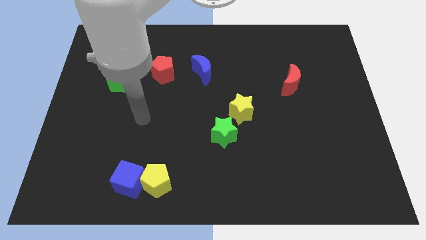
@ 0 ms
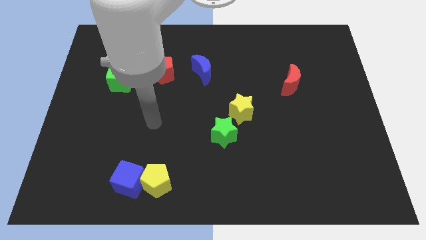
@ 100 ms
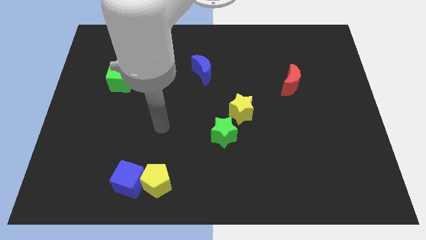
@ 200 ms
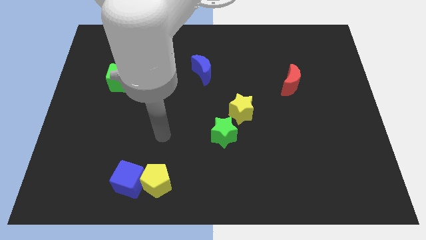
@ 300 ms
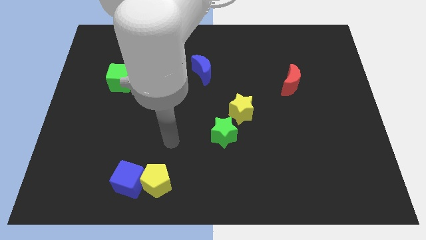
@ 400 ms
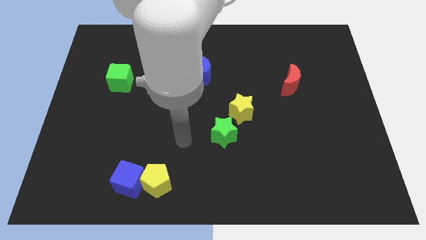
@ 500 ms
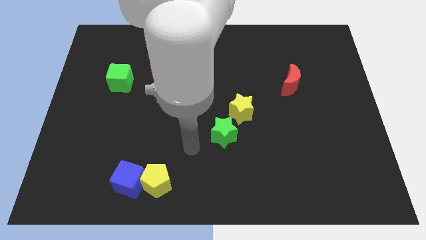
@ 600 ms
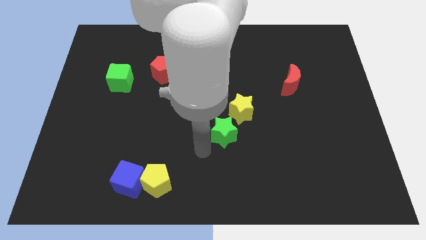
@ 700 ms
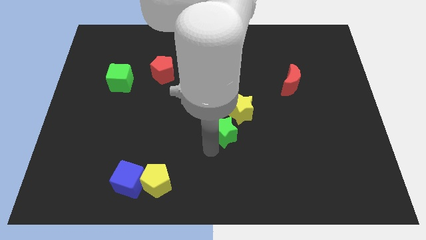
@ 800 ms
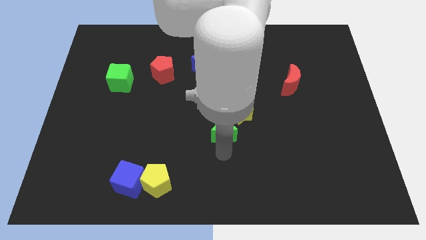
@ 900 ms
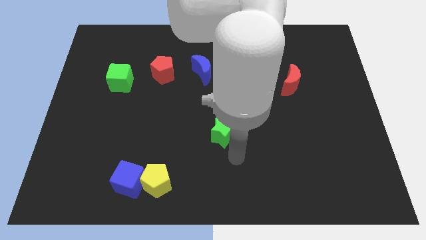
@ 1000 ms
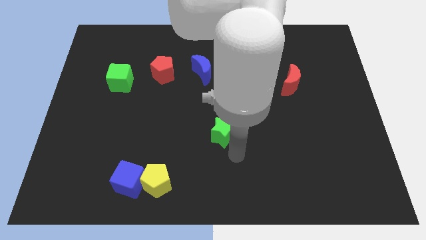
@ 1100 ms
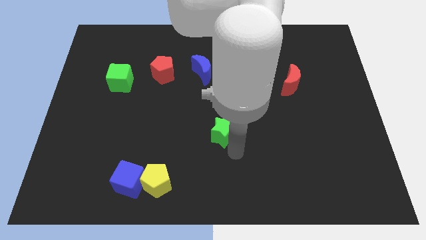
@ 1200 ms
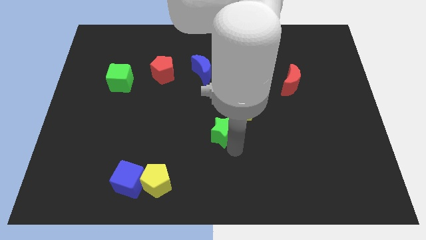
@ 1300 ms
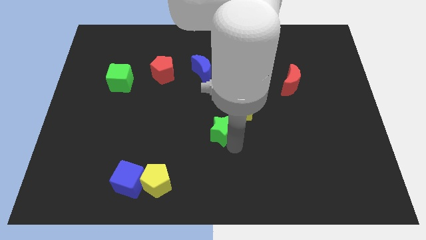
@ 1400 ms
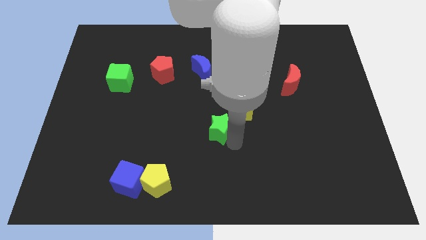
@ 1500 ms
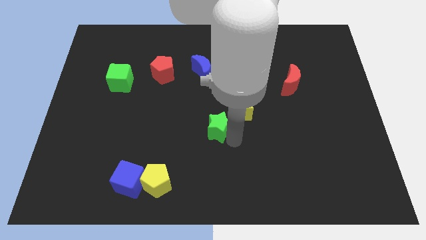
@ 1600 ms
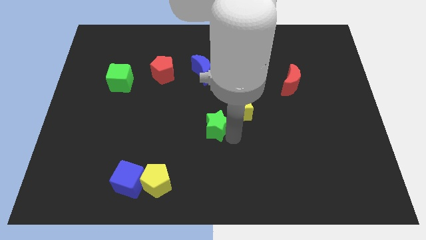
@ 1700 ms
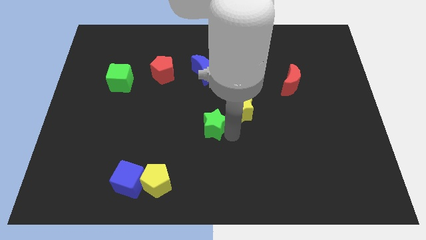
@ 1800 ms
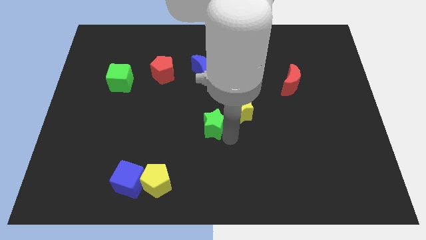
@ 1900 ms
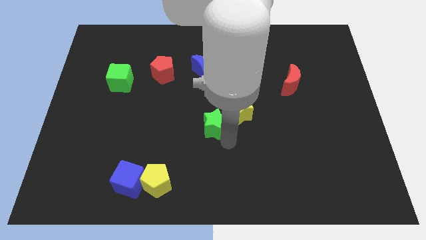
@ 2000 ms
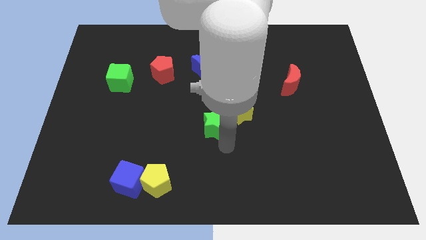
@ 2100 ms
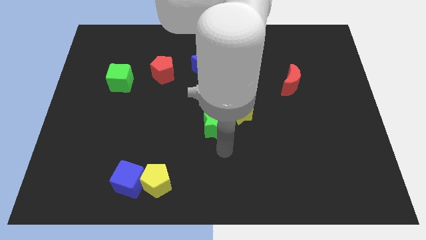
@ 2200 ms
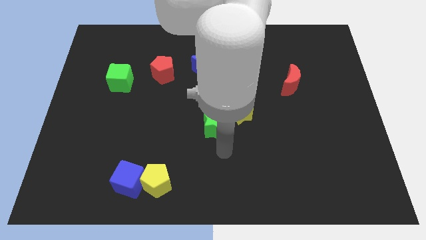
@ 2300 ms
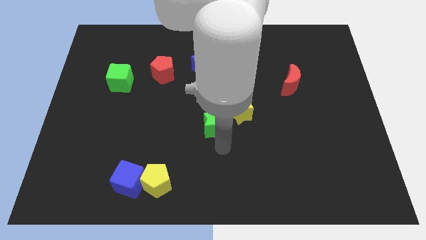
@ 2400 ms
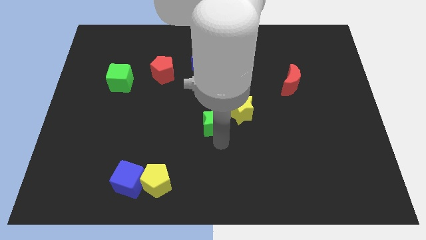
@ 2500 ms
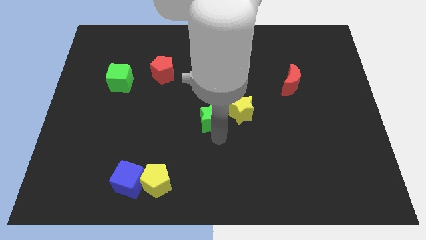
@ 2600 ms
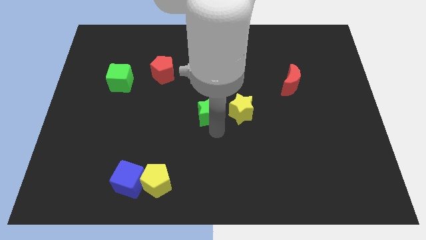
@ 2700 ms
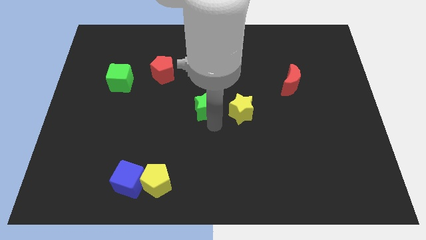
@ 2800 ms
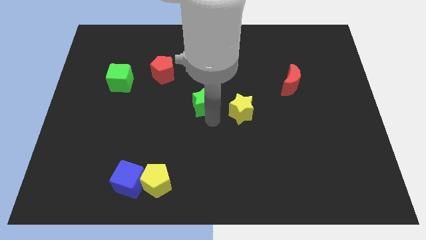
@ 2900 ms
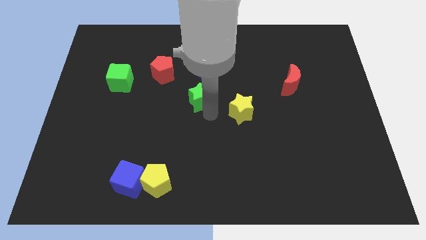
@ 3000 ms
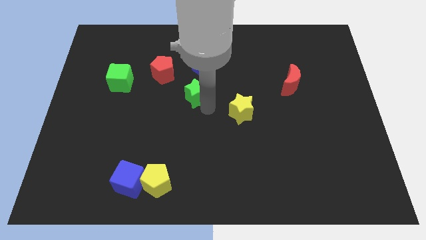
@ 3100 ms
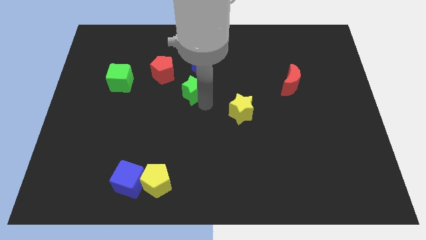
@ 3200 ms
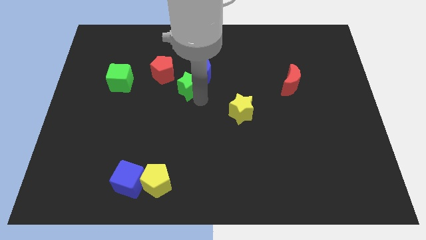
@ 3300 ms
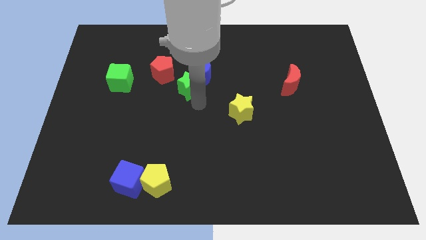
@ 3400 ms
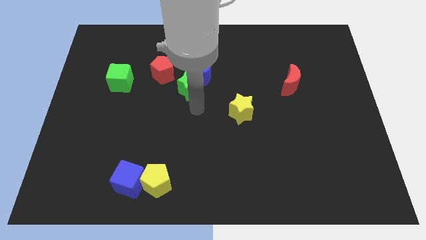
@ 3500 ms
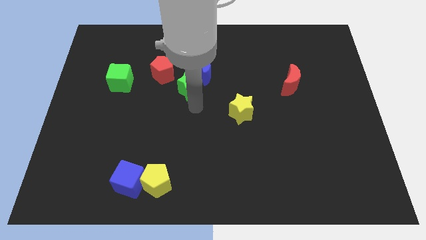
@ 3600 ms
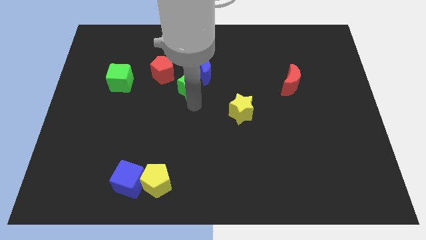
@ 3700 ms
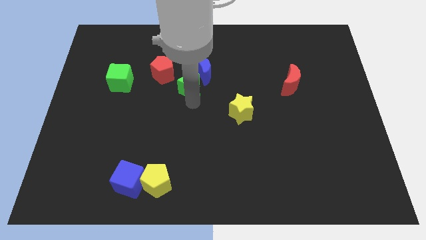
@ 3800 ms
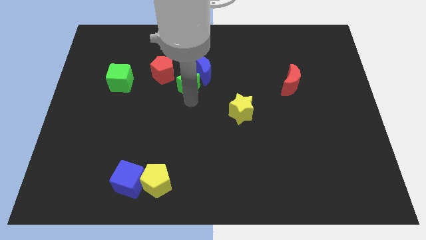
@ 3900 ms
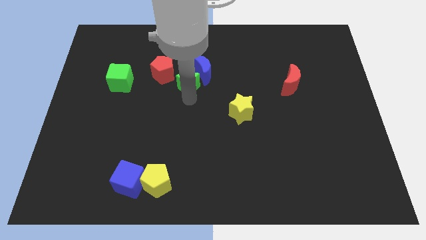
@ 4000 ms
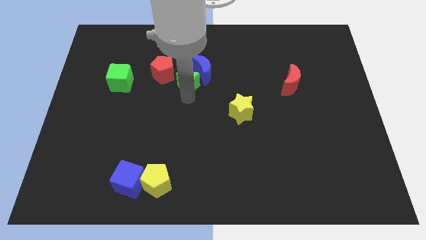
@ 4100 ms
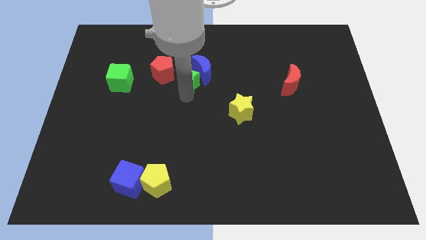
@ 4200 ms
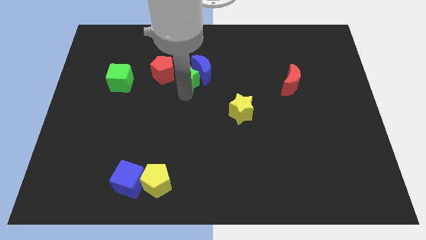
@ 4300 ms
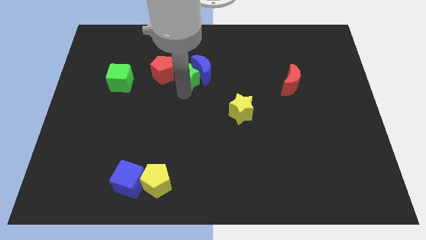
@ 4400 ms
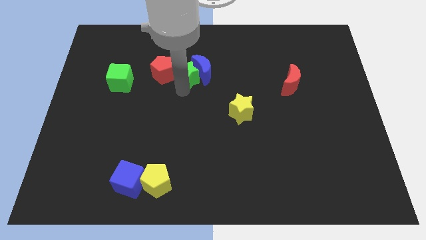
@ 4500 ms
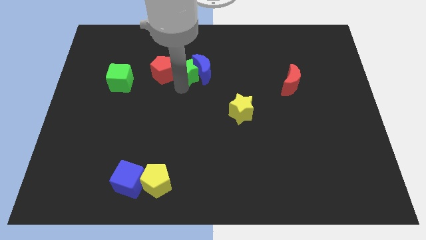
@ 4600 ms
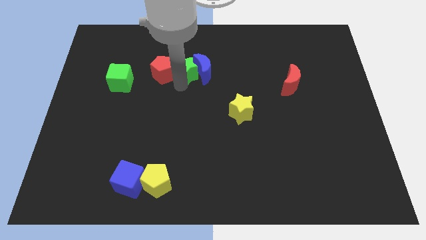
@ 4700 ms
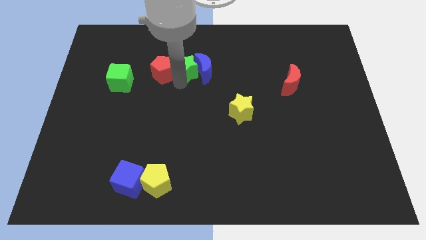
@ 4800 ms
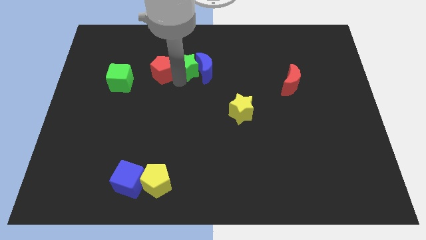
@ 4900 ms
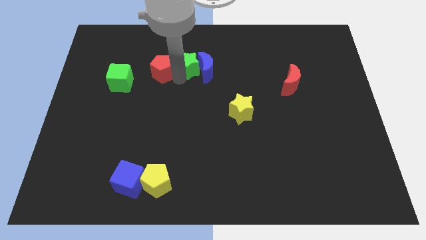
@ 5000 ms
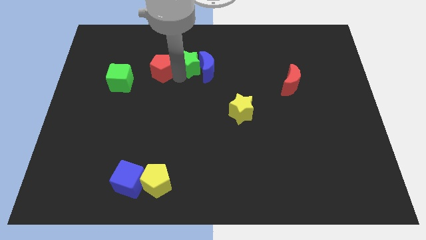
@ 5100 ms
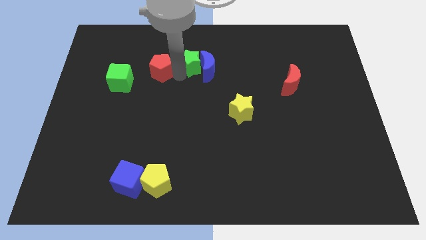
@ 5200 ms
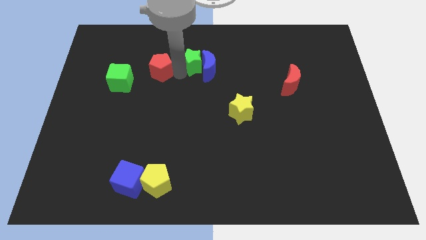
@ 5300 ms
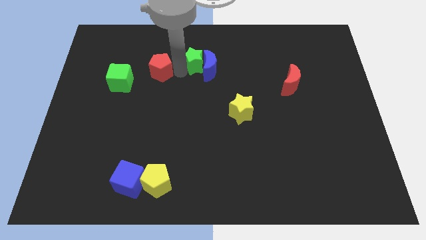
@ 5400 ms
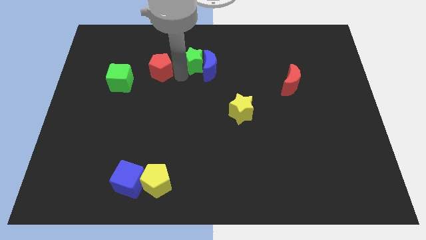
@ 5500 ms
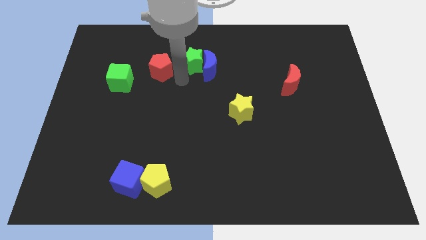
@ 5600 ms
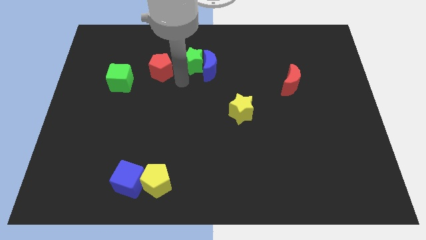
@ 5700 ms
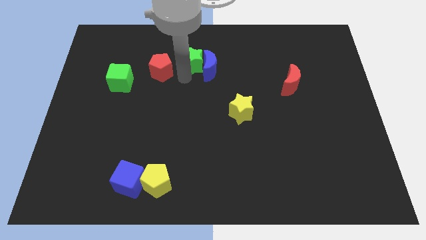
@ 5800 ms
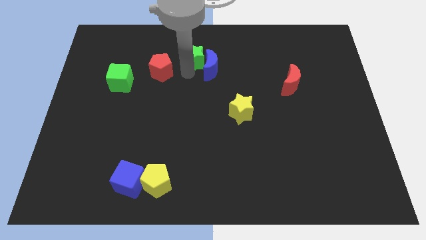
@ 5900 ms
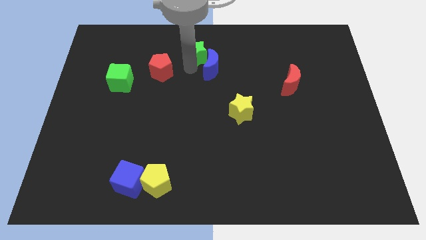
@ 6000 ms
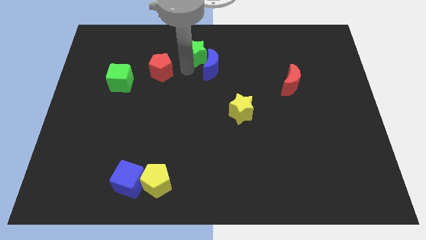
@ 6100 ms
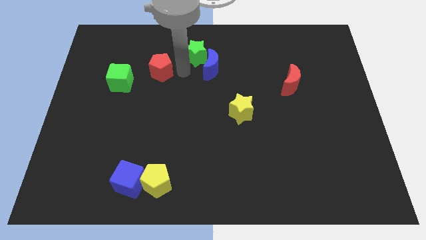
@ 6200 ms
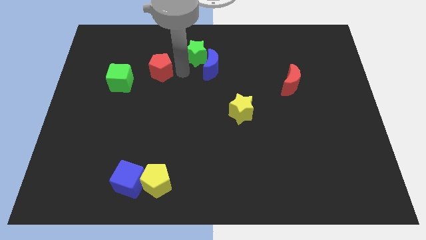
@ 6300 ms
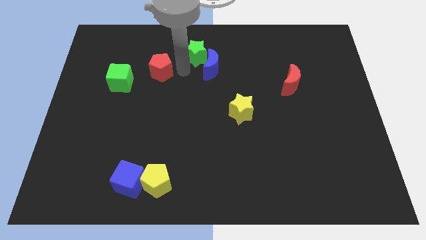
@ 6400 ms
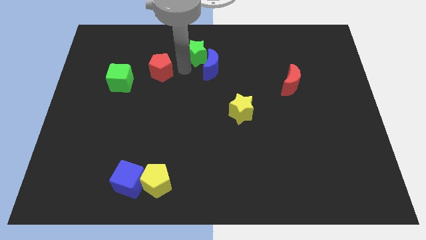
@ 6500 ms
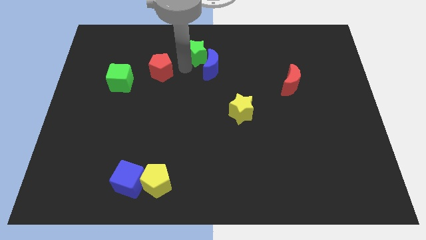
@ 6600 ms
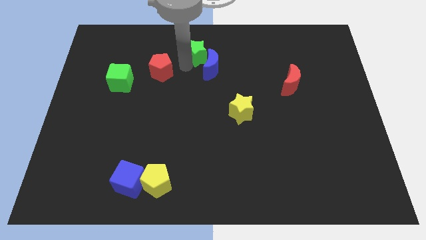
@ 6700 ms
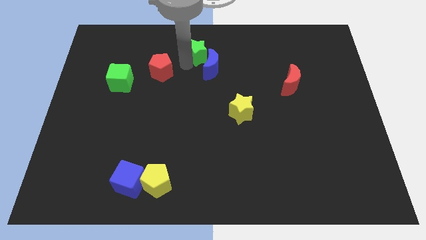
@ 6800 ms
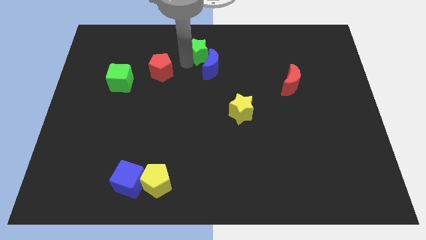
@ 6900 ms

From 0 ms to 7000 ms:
push the green star to the top
